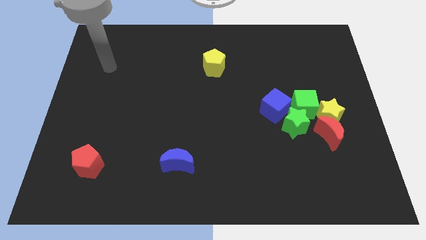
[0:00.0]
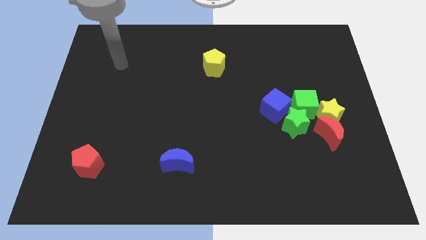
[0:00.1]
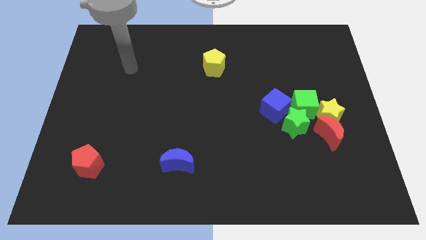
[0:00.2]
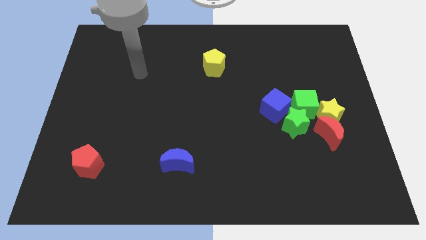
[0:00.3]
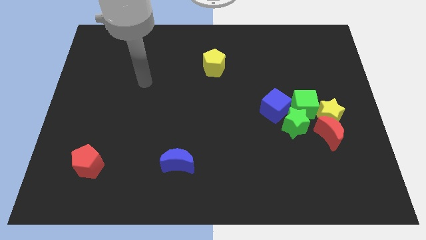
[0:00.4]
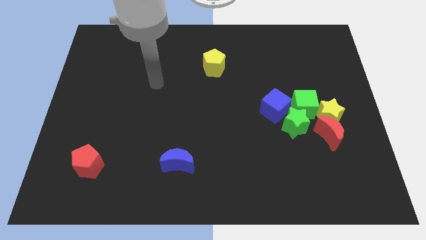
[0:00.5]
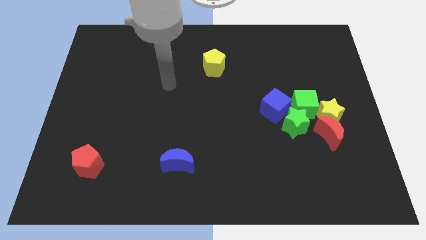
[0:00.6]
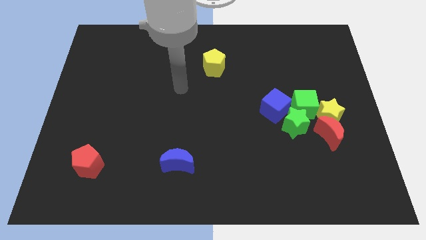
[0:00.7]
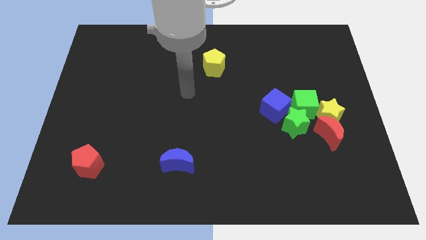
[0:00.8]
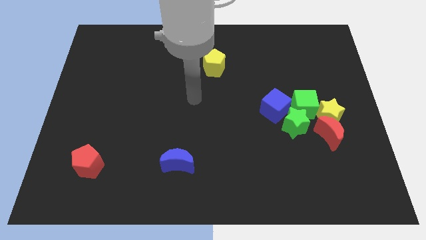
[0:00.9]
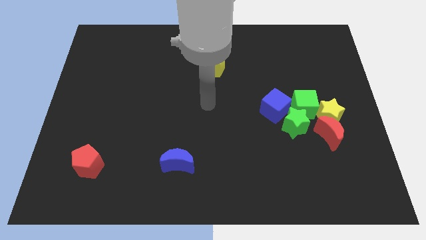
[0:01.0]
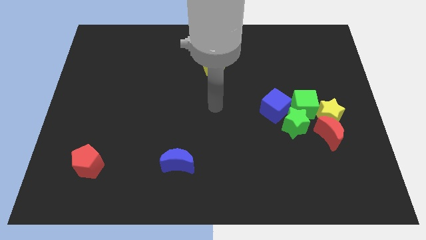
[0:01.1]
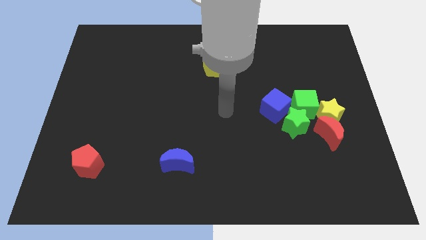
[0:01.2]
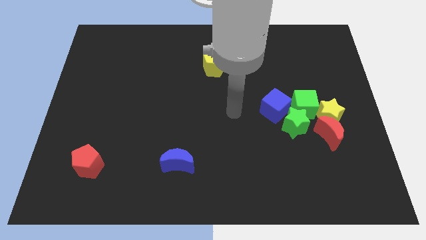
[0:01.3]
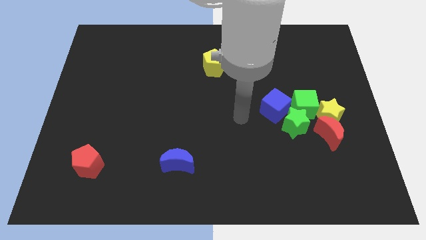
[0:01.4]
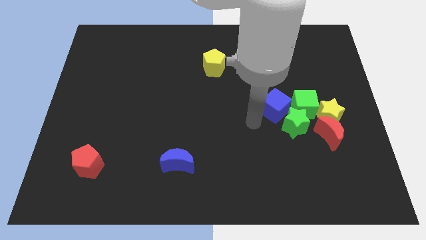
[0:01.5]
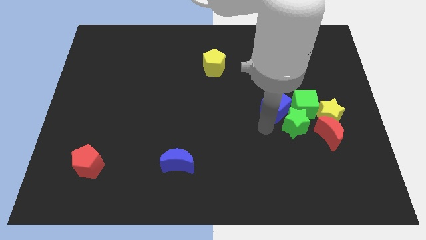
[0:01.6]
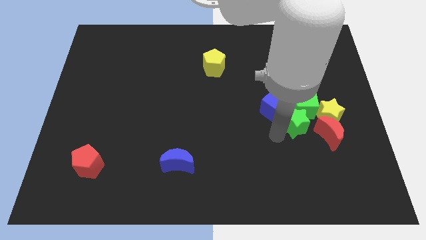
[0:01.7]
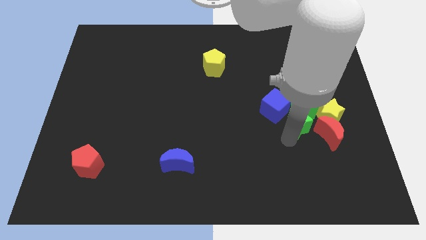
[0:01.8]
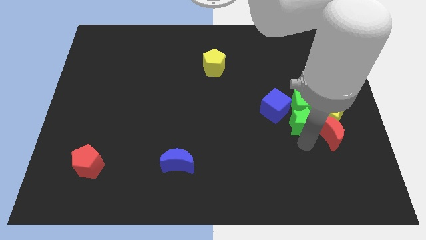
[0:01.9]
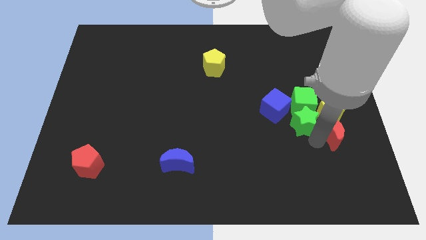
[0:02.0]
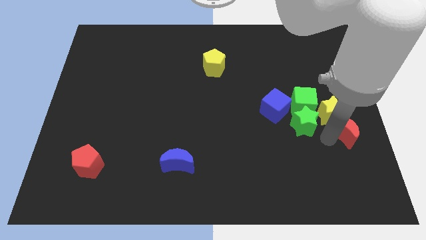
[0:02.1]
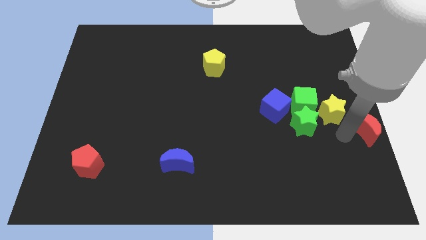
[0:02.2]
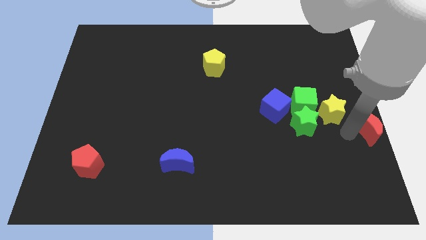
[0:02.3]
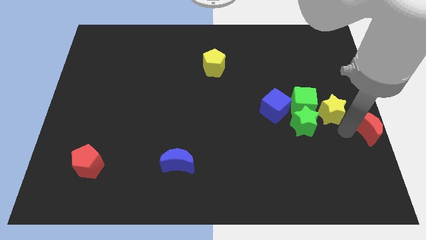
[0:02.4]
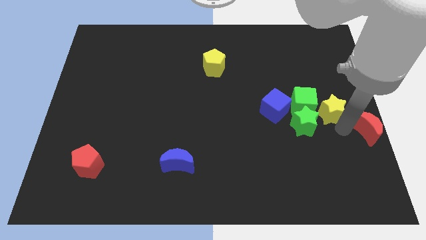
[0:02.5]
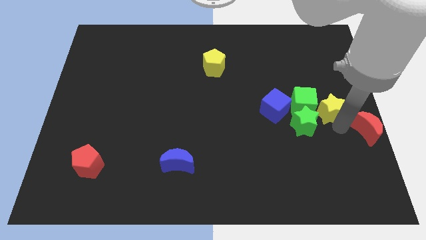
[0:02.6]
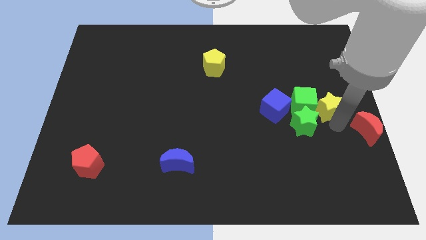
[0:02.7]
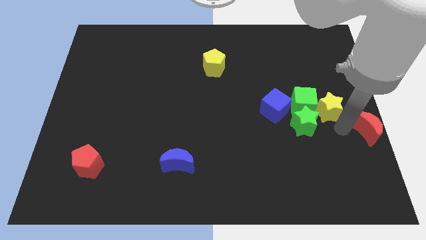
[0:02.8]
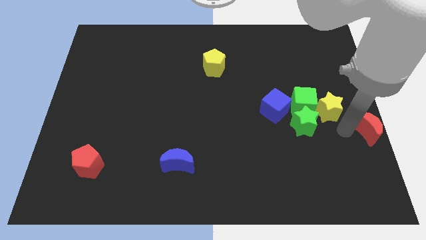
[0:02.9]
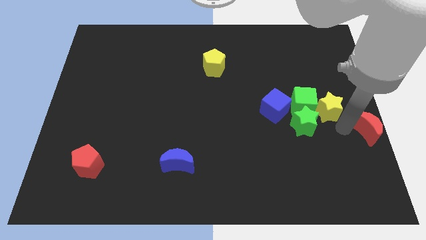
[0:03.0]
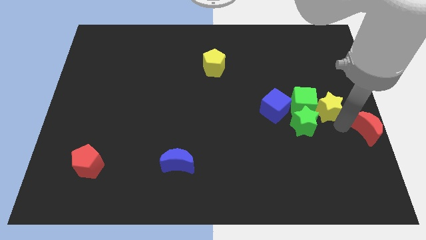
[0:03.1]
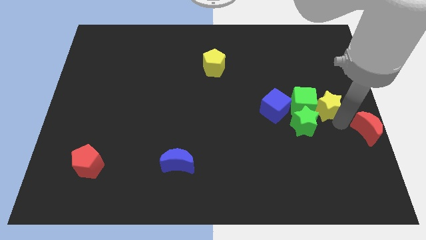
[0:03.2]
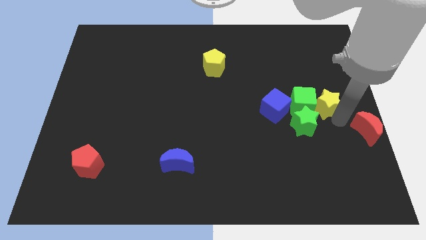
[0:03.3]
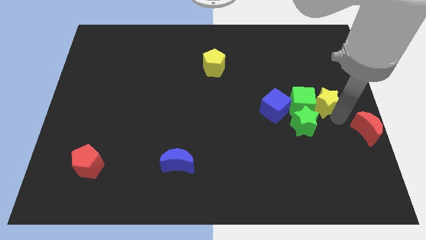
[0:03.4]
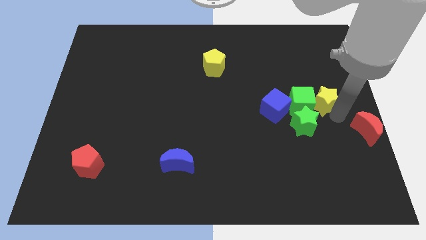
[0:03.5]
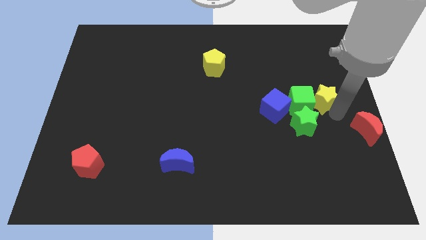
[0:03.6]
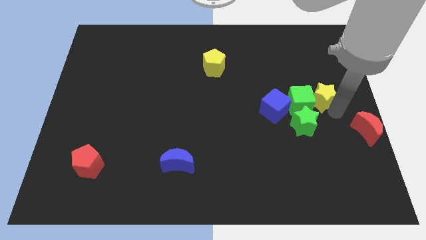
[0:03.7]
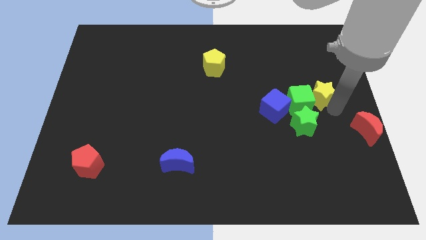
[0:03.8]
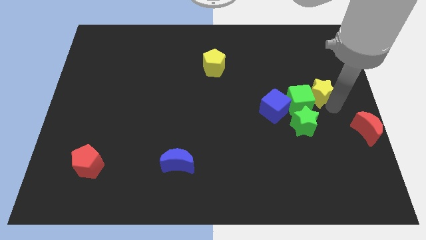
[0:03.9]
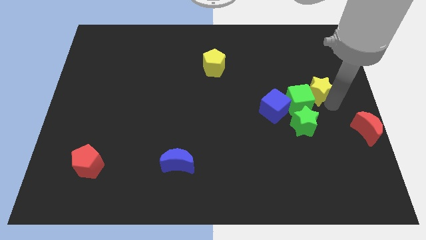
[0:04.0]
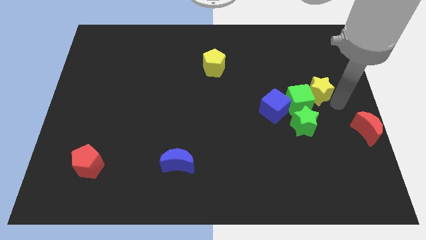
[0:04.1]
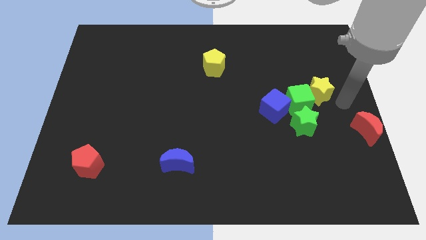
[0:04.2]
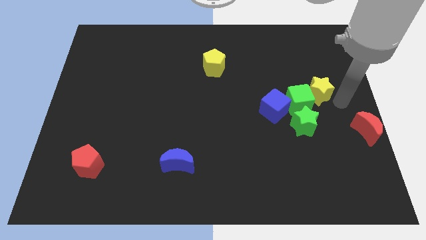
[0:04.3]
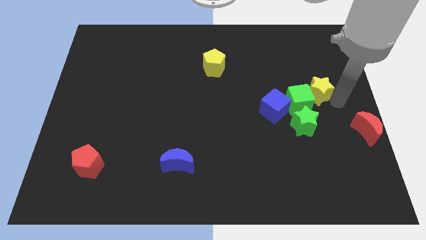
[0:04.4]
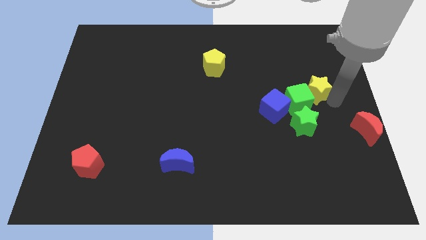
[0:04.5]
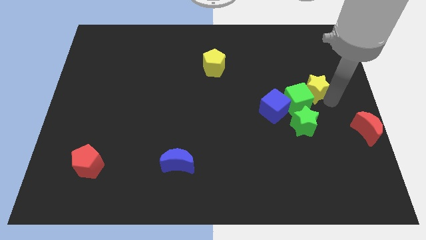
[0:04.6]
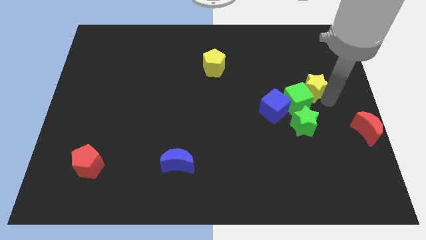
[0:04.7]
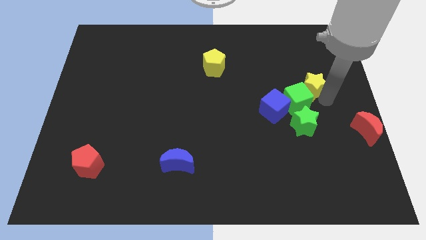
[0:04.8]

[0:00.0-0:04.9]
slightly move the yellow star up and left

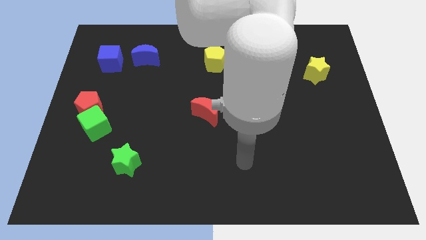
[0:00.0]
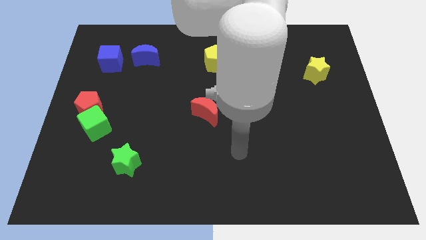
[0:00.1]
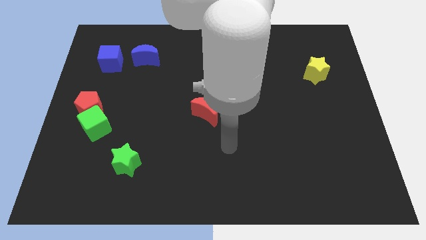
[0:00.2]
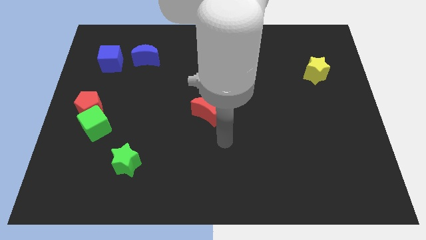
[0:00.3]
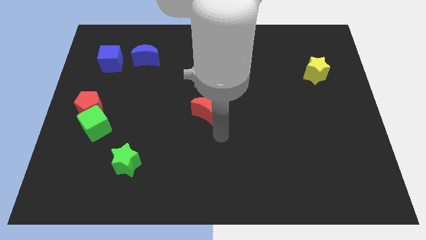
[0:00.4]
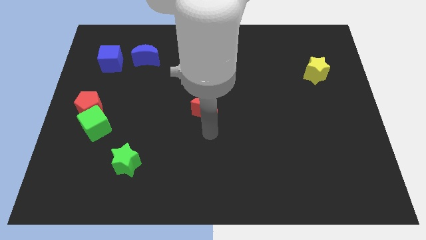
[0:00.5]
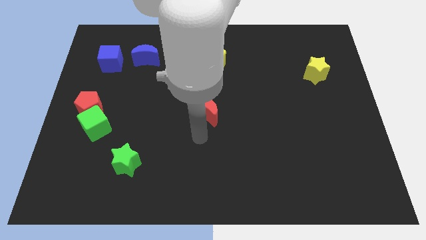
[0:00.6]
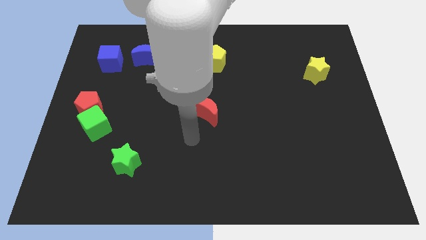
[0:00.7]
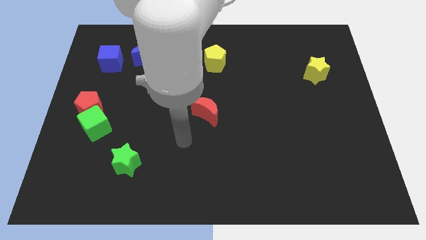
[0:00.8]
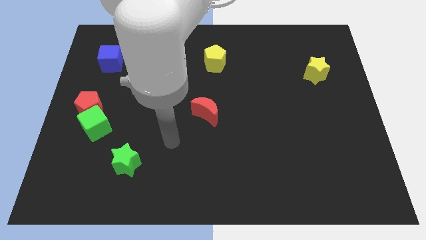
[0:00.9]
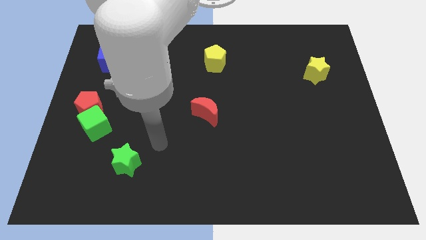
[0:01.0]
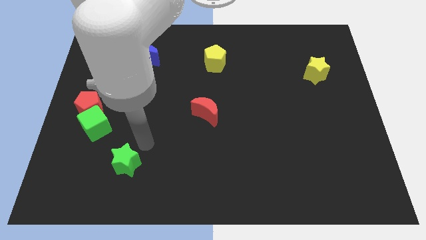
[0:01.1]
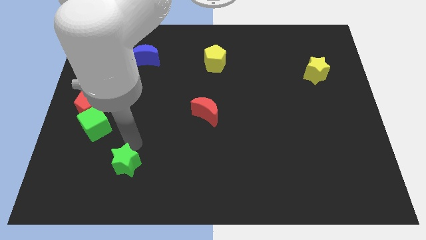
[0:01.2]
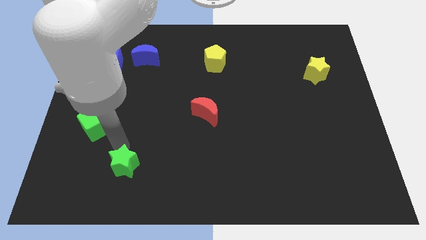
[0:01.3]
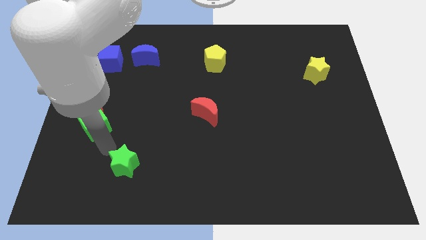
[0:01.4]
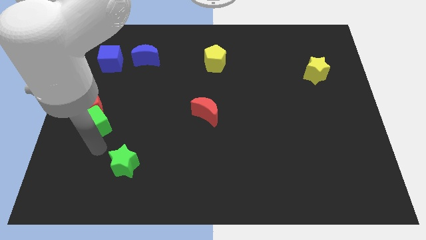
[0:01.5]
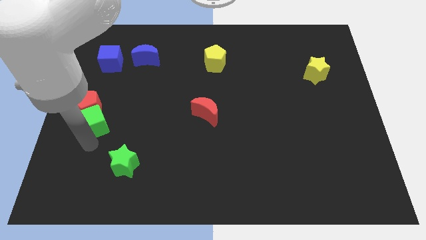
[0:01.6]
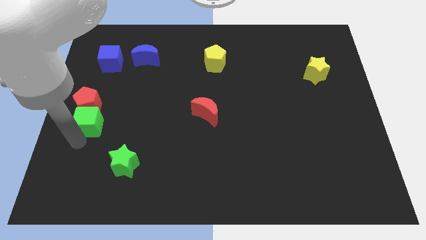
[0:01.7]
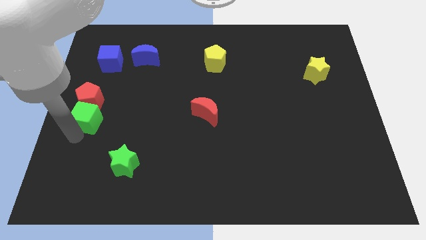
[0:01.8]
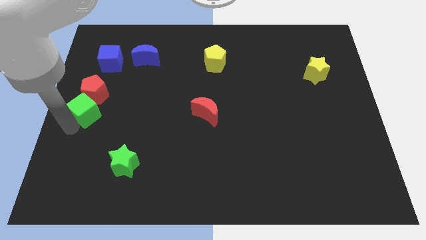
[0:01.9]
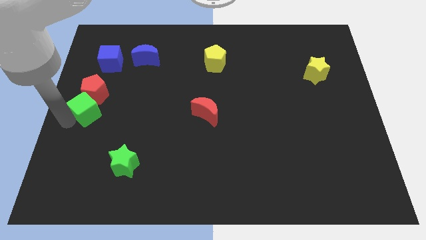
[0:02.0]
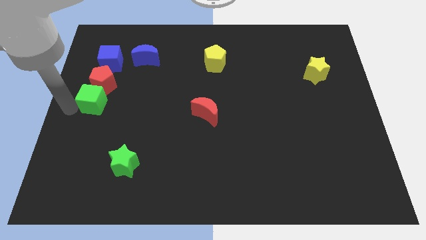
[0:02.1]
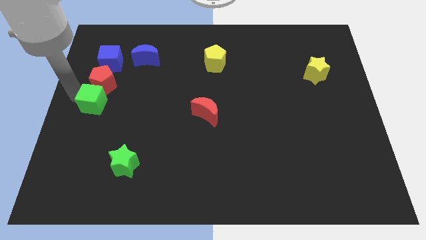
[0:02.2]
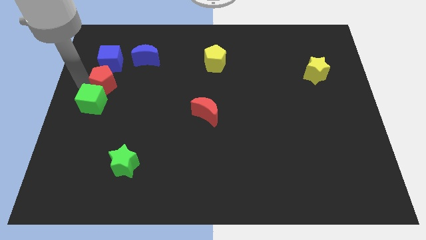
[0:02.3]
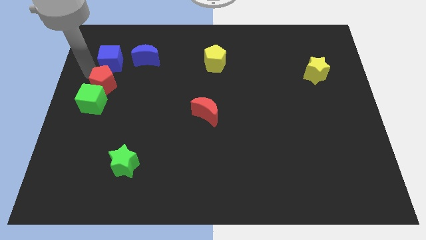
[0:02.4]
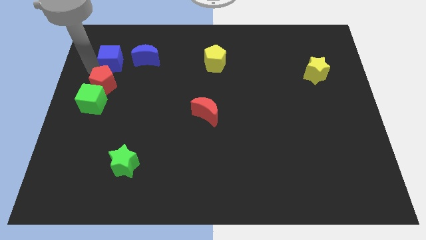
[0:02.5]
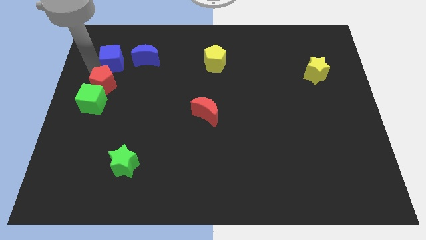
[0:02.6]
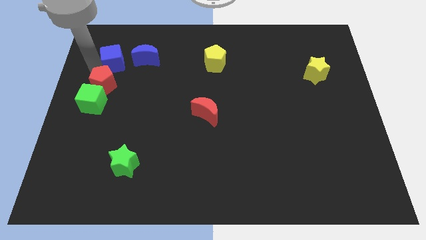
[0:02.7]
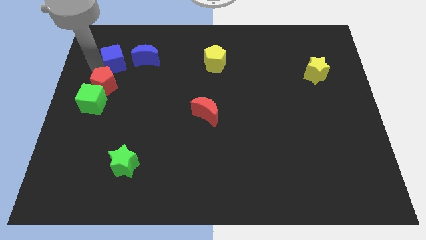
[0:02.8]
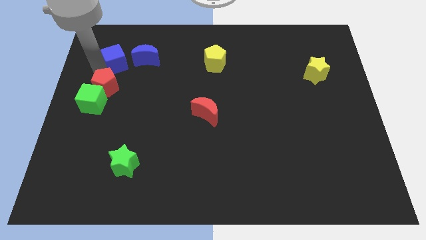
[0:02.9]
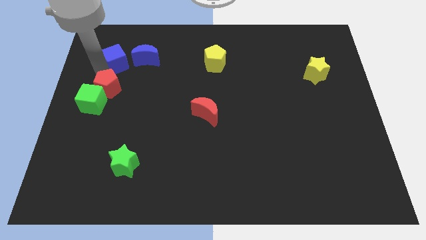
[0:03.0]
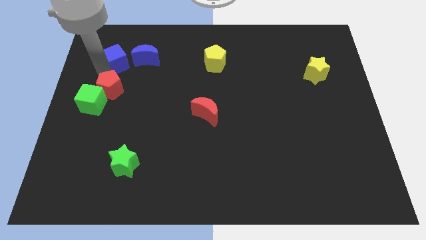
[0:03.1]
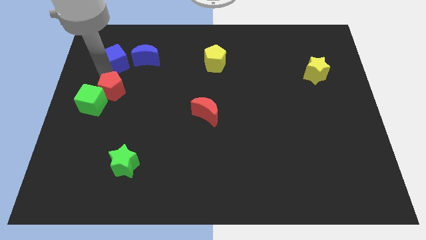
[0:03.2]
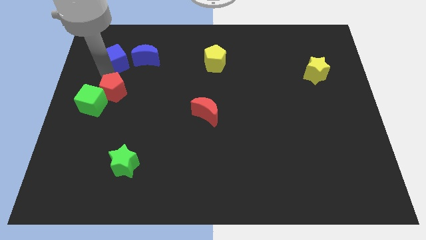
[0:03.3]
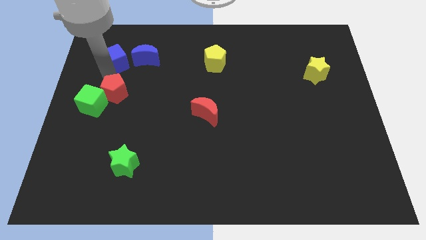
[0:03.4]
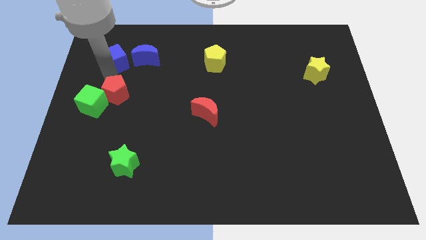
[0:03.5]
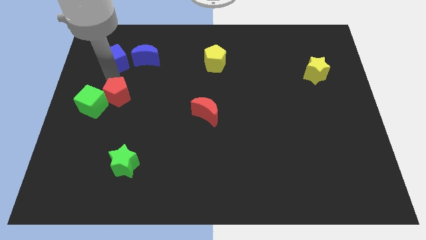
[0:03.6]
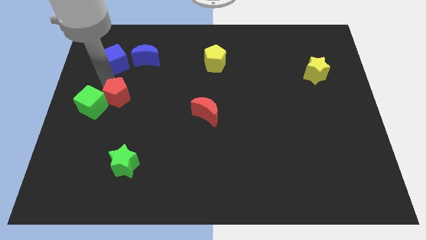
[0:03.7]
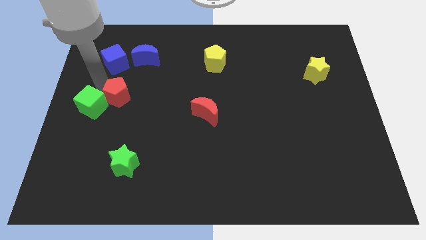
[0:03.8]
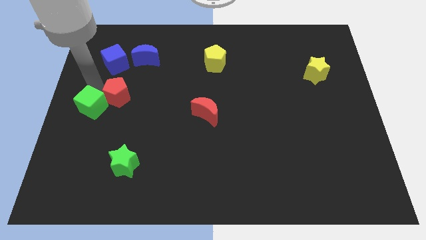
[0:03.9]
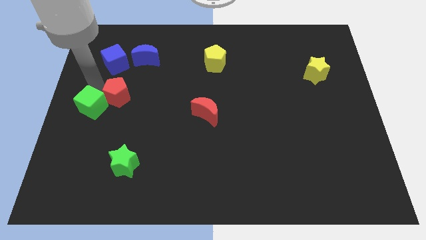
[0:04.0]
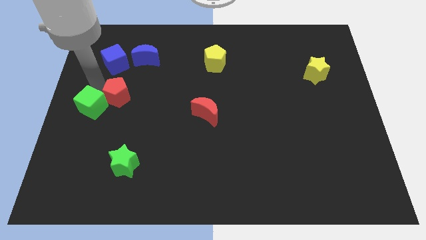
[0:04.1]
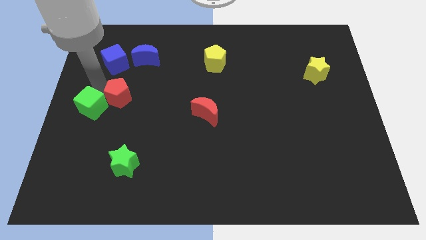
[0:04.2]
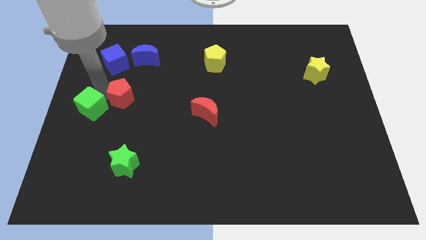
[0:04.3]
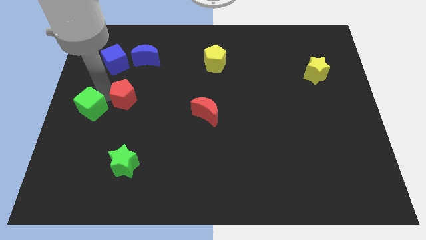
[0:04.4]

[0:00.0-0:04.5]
slide the red pentagon somewhat to the right
